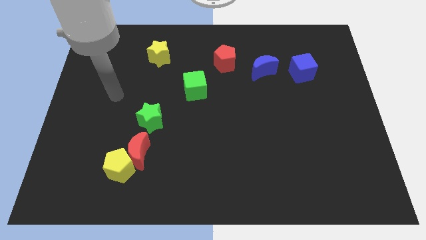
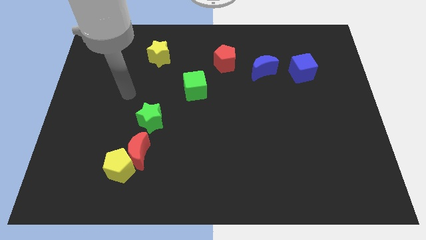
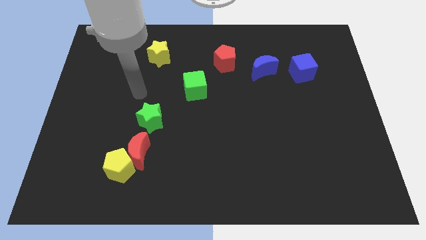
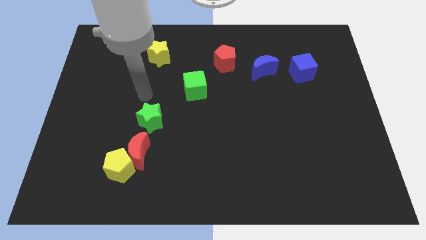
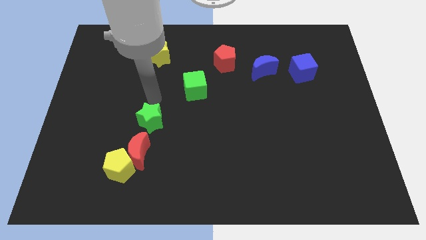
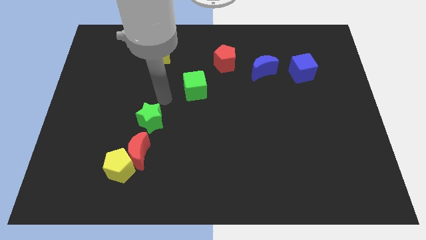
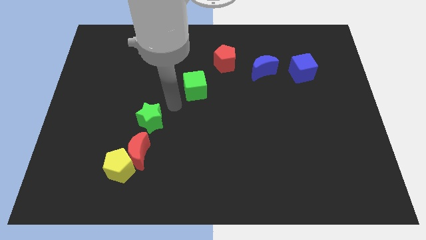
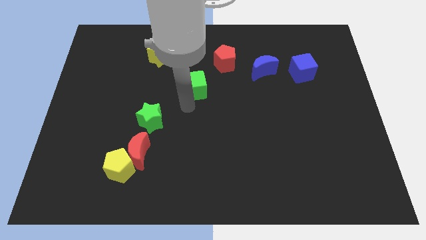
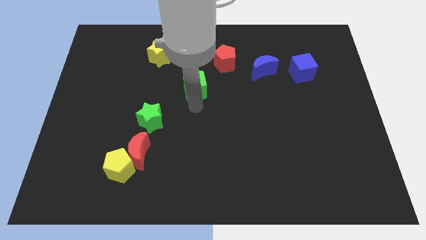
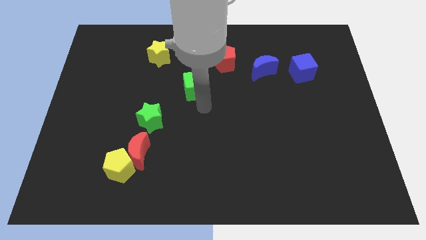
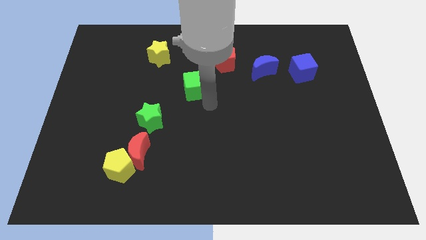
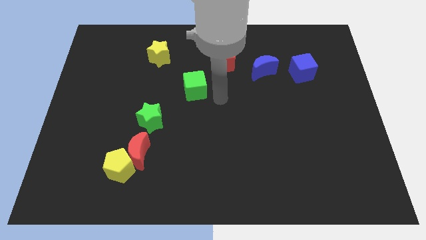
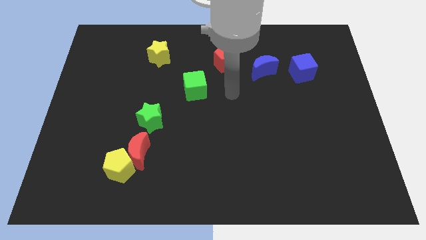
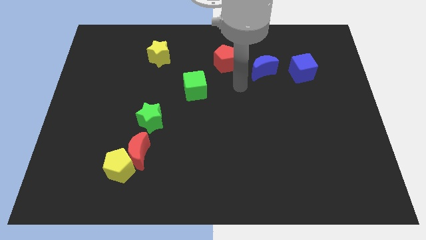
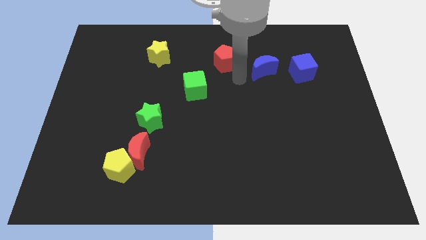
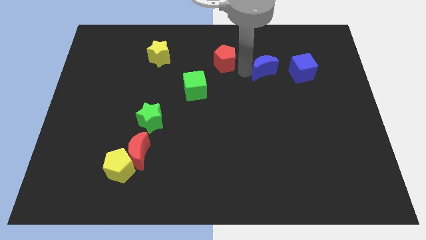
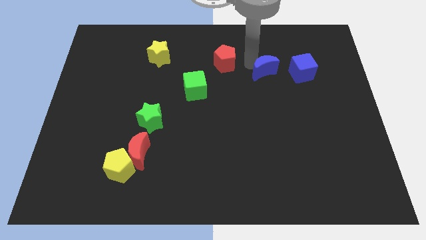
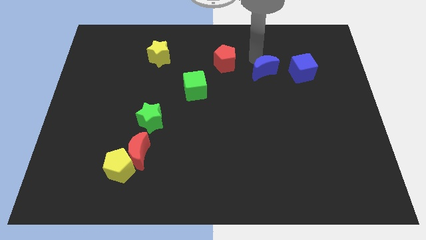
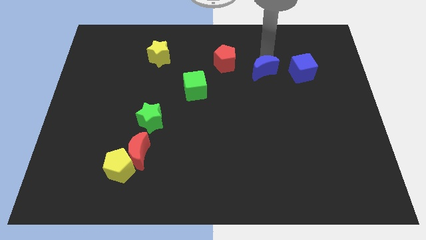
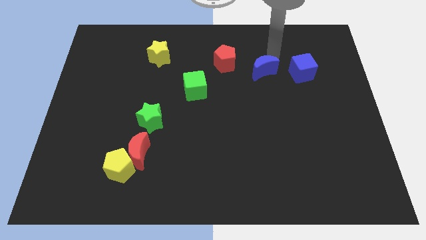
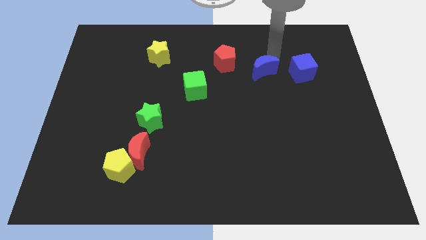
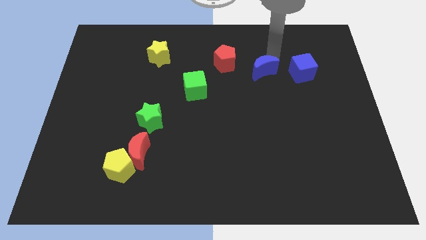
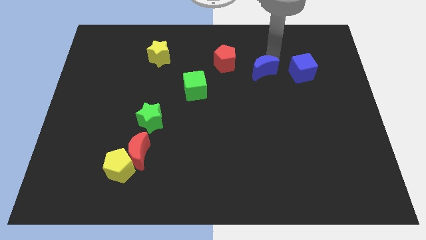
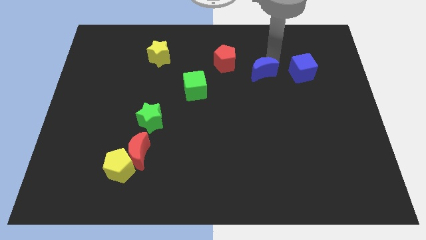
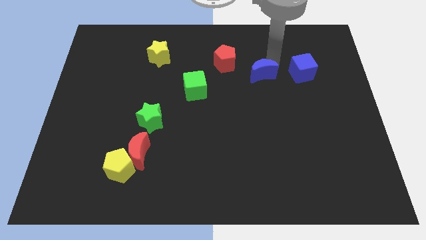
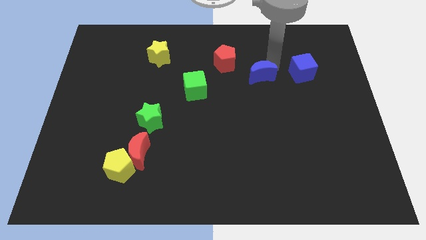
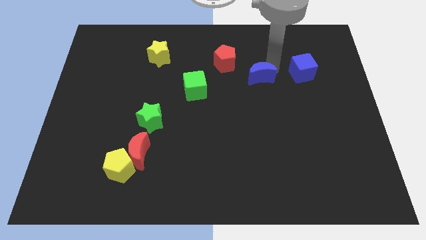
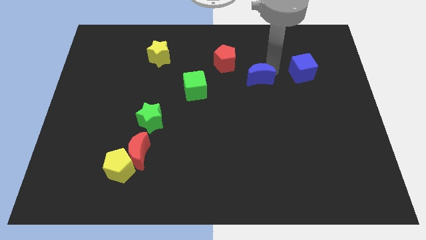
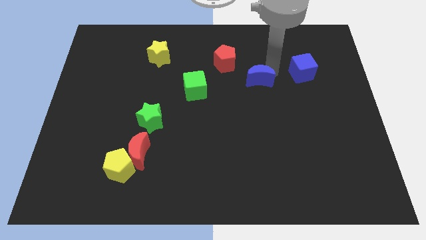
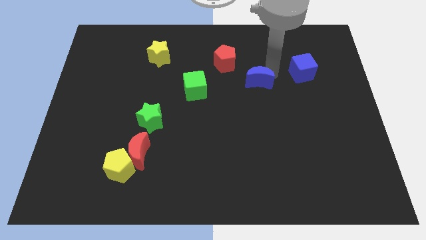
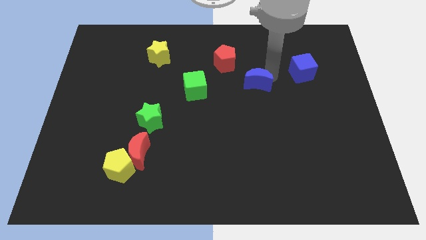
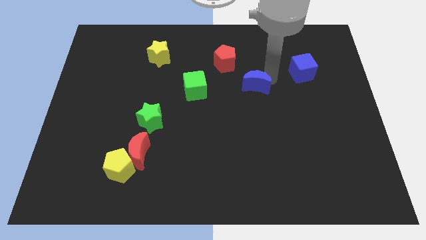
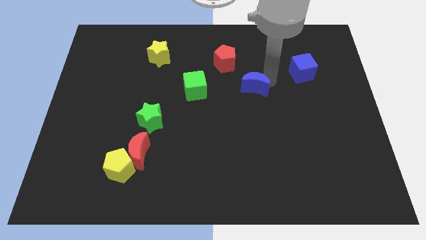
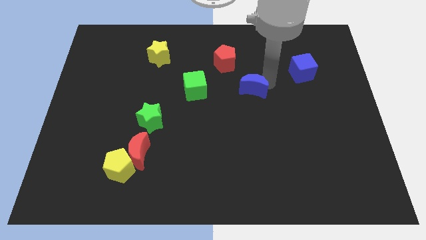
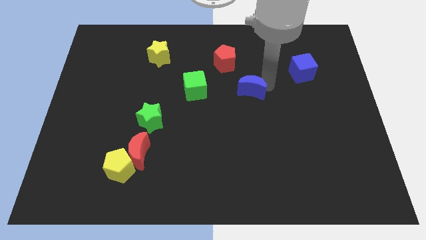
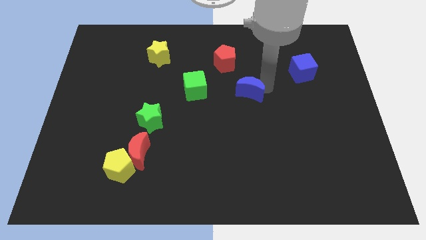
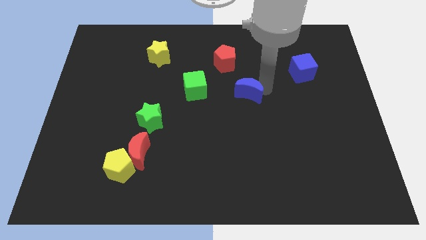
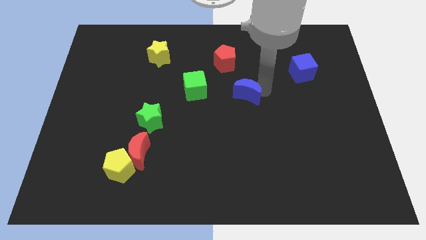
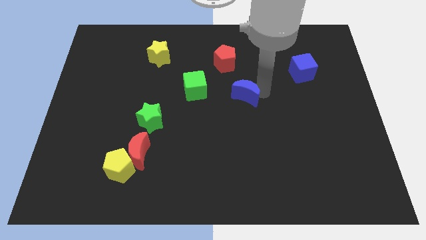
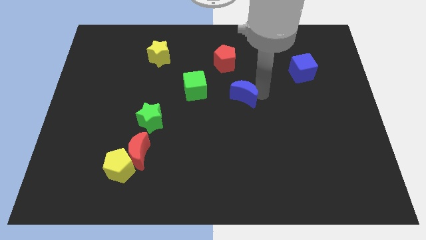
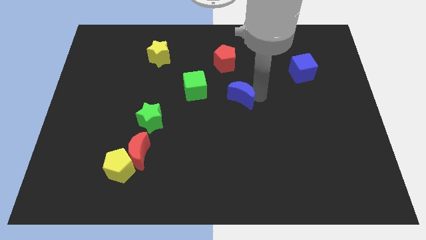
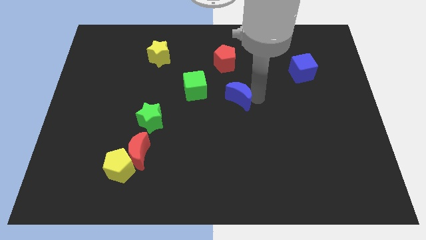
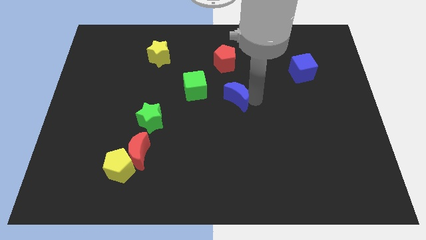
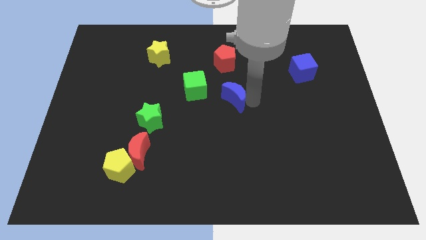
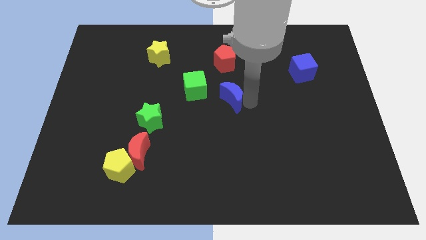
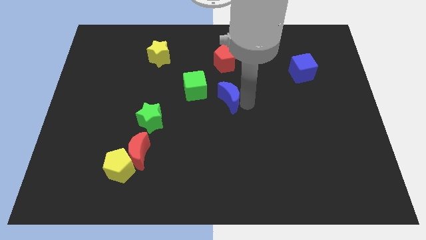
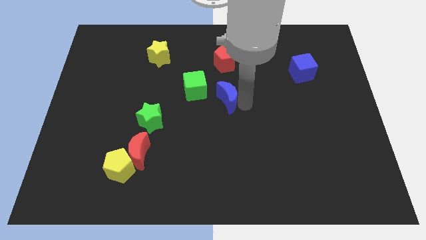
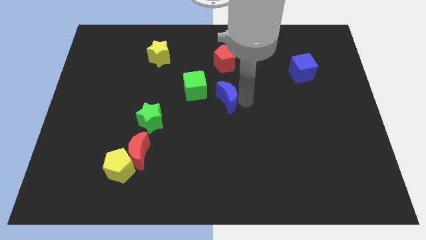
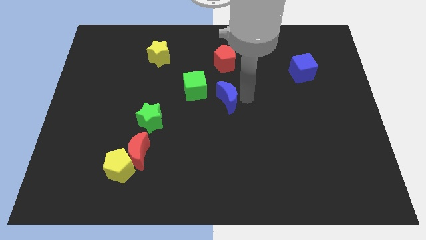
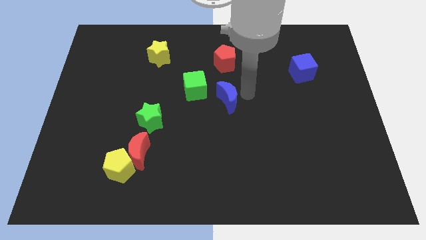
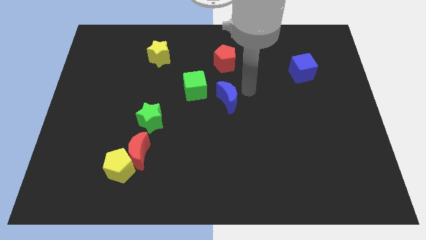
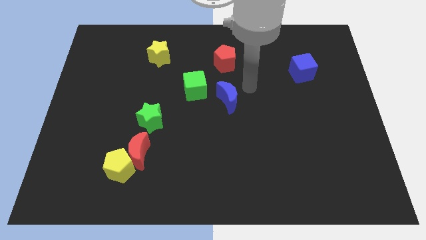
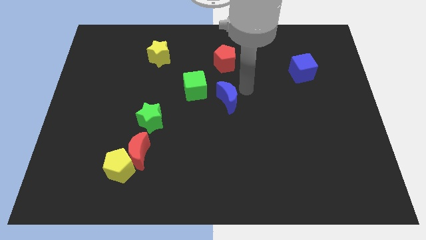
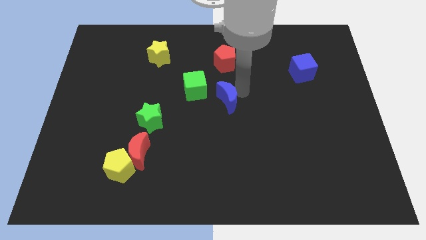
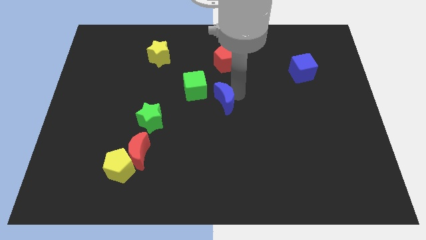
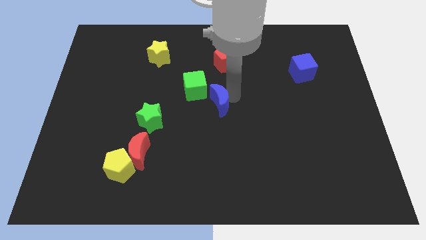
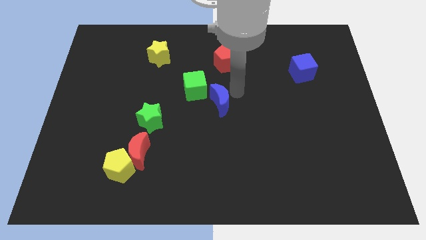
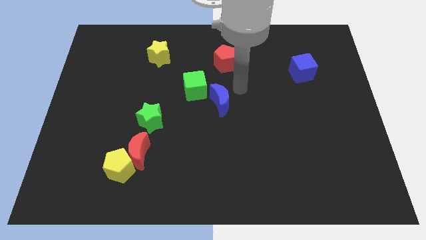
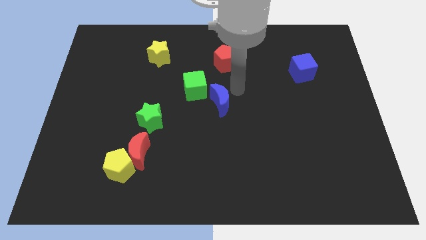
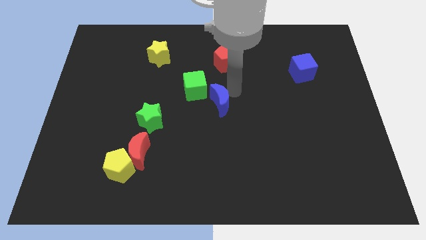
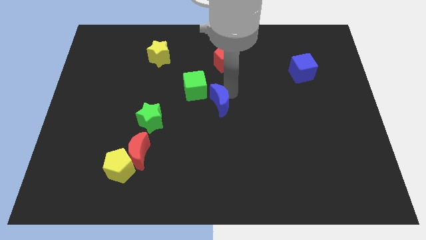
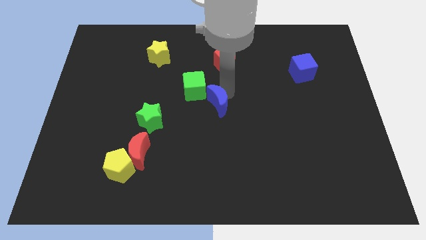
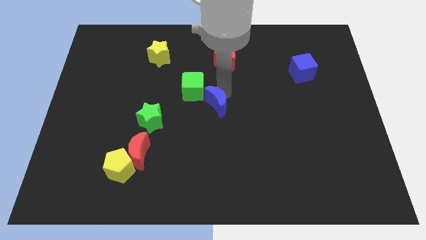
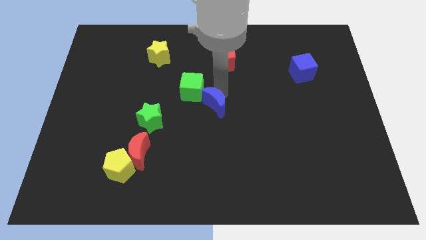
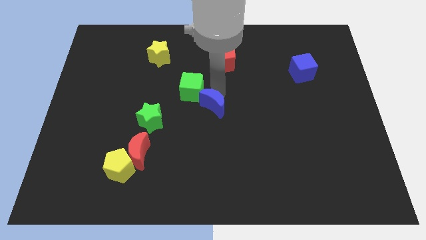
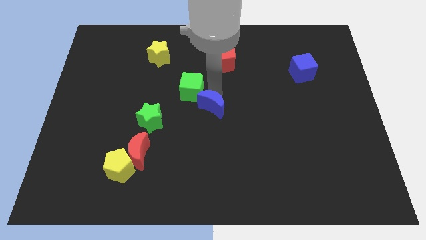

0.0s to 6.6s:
slide the blue moon to the bottom side of the green cube
